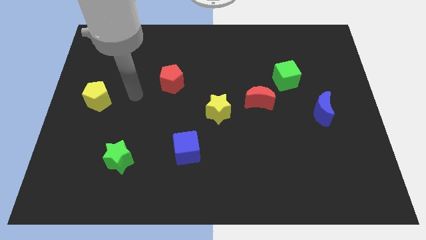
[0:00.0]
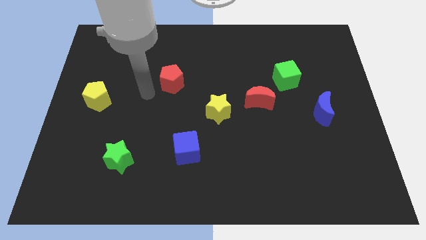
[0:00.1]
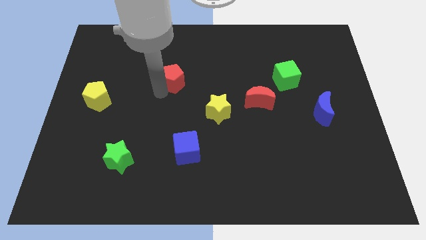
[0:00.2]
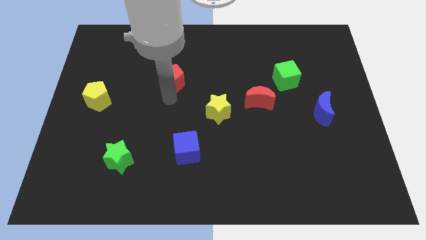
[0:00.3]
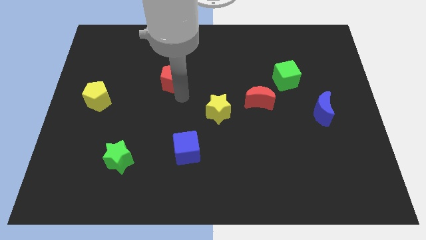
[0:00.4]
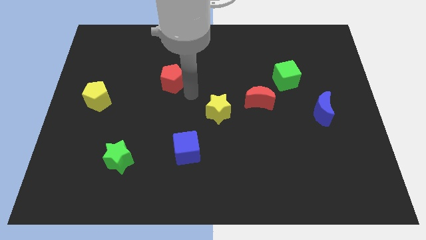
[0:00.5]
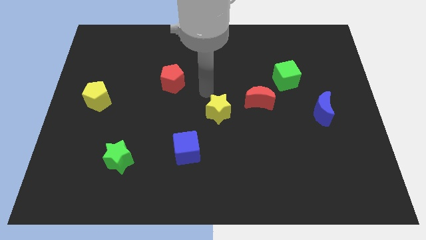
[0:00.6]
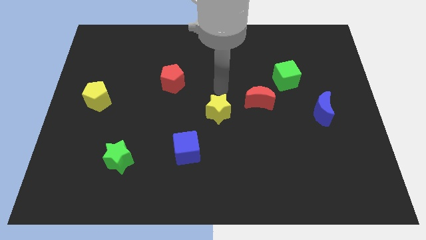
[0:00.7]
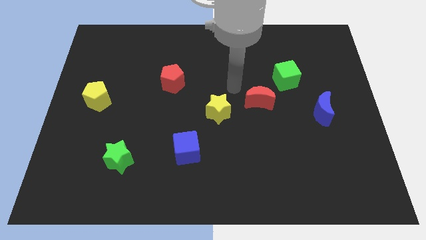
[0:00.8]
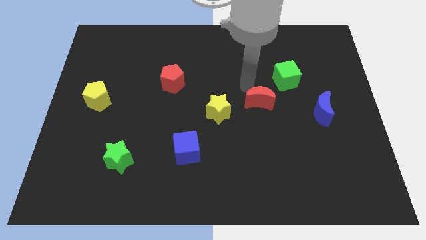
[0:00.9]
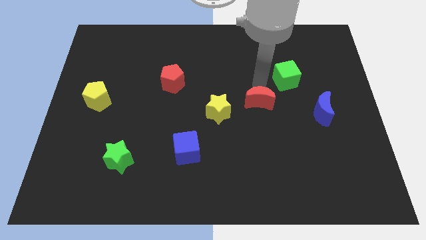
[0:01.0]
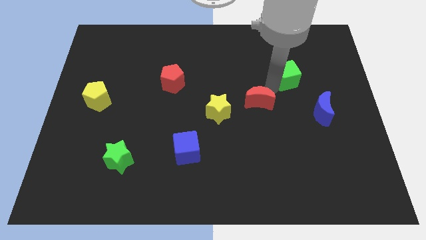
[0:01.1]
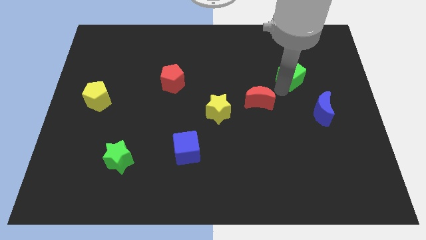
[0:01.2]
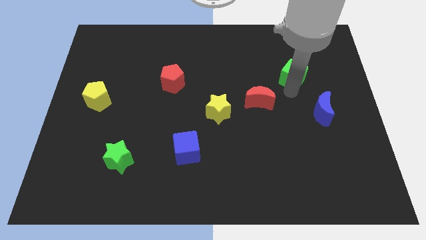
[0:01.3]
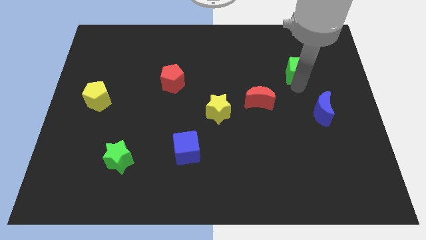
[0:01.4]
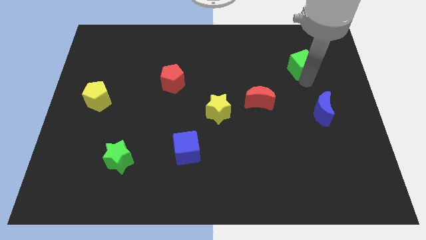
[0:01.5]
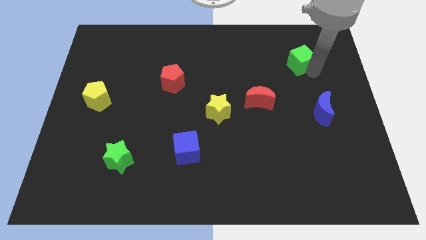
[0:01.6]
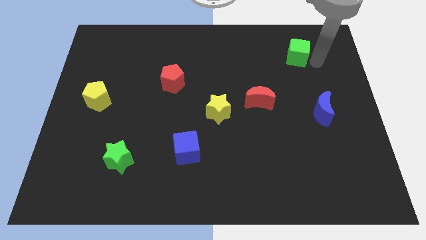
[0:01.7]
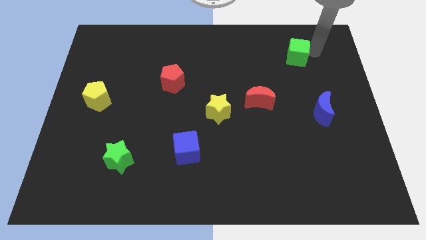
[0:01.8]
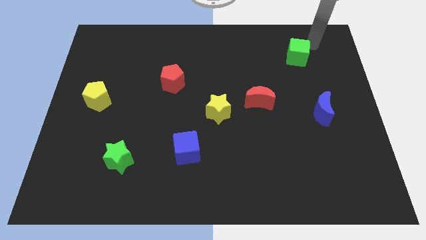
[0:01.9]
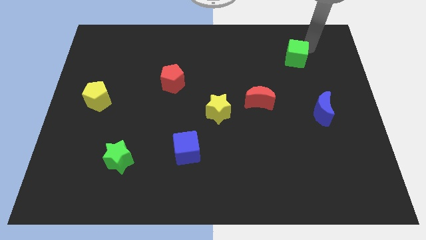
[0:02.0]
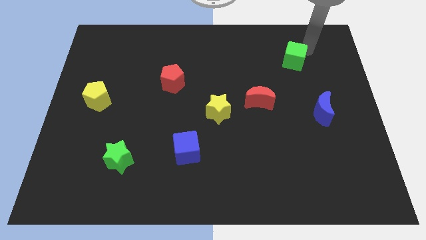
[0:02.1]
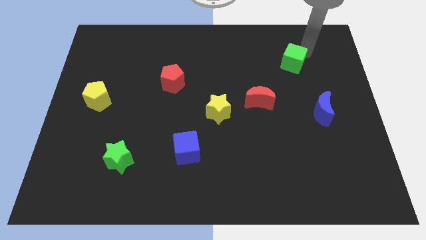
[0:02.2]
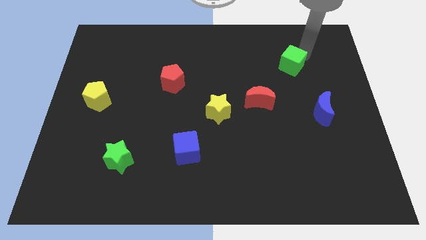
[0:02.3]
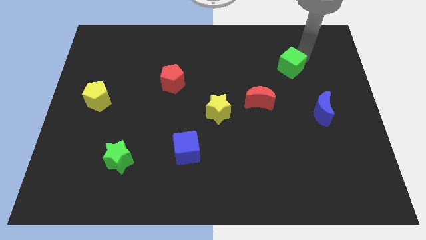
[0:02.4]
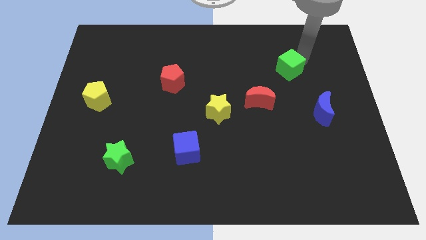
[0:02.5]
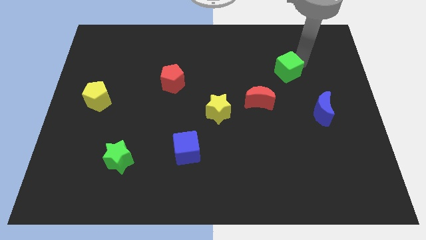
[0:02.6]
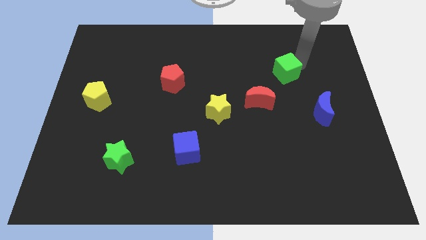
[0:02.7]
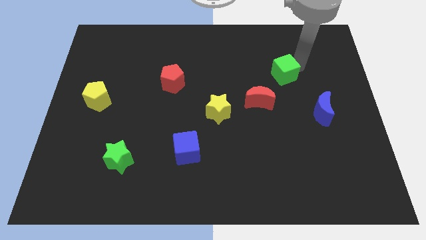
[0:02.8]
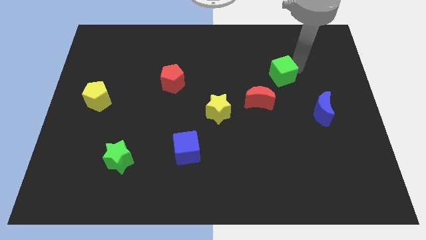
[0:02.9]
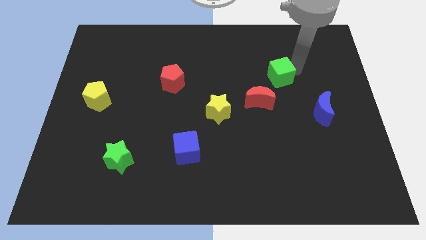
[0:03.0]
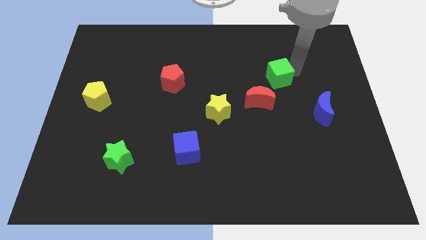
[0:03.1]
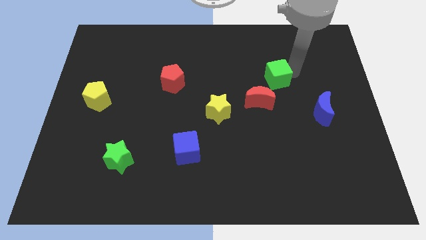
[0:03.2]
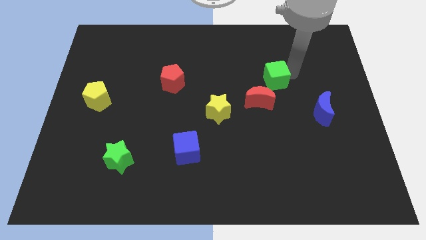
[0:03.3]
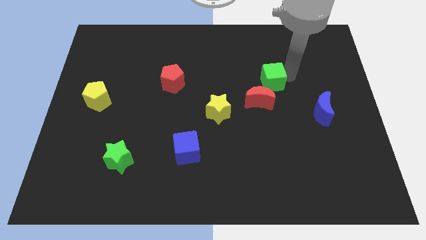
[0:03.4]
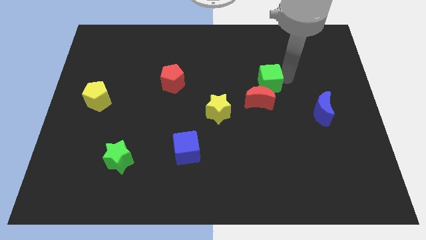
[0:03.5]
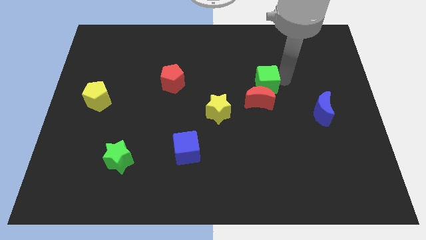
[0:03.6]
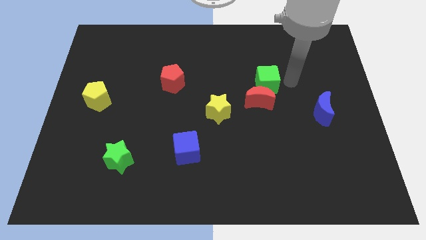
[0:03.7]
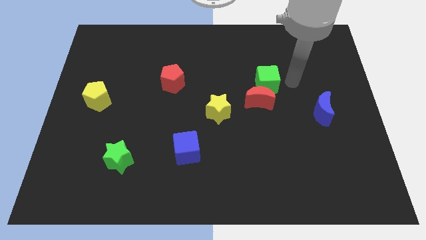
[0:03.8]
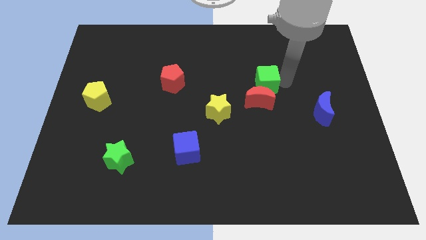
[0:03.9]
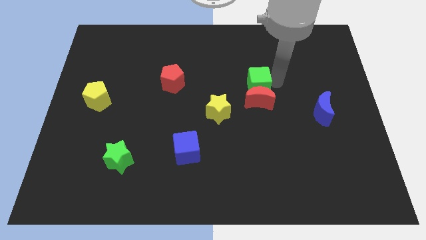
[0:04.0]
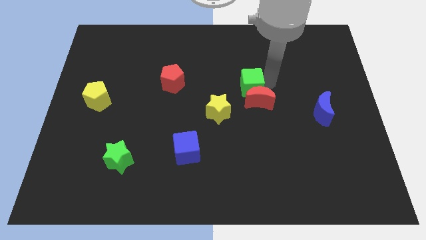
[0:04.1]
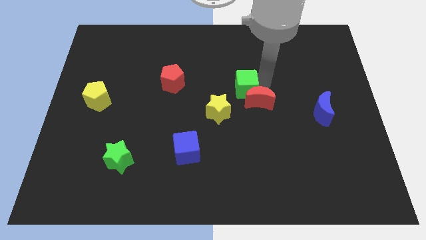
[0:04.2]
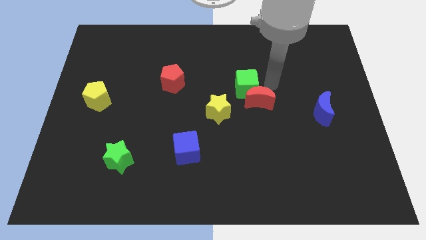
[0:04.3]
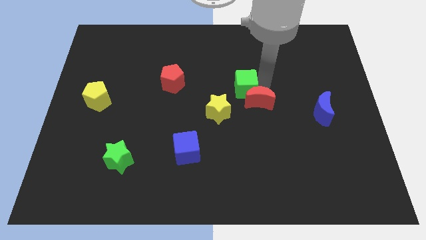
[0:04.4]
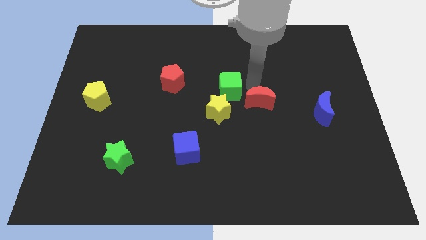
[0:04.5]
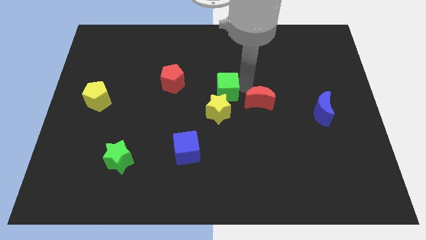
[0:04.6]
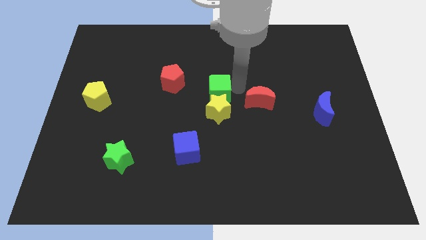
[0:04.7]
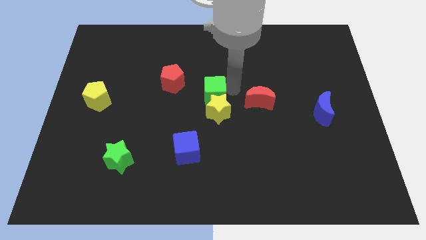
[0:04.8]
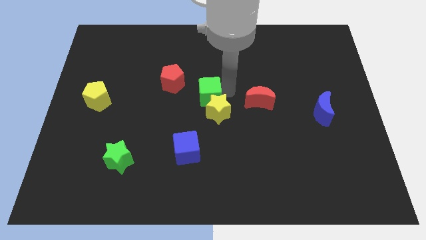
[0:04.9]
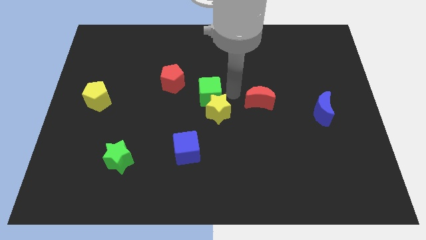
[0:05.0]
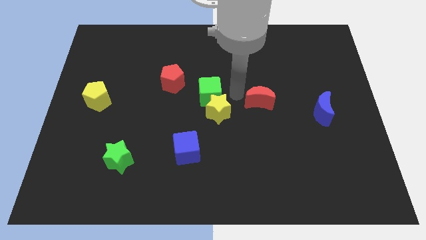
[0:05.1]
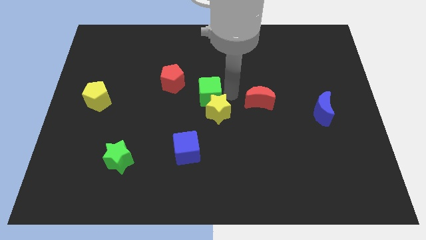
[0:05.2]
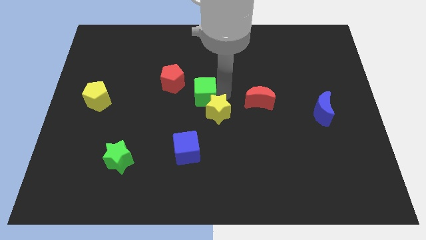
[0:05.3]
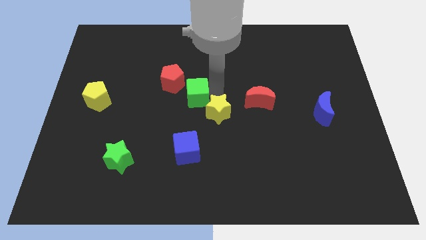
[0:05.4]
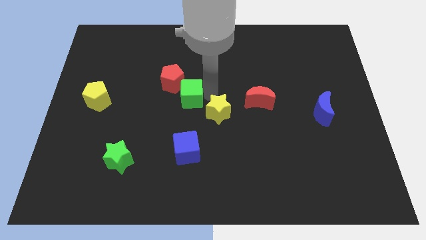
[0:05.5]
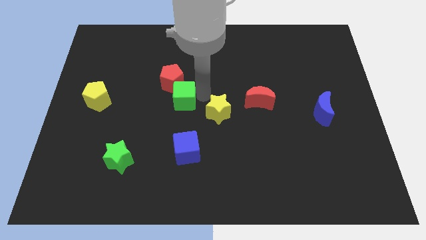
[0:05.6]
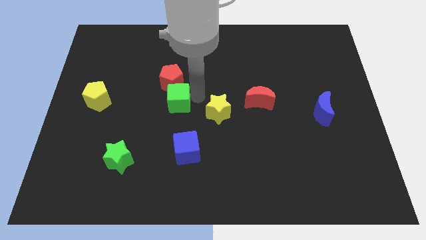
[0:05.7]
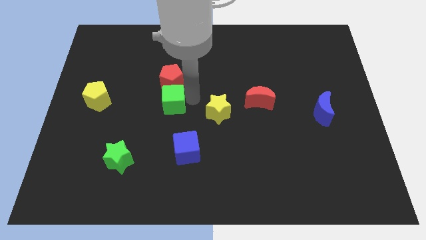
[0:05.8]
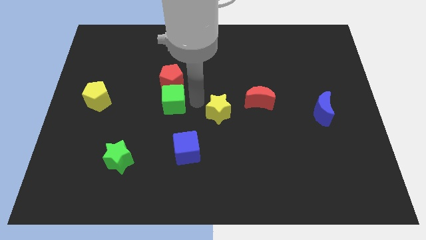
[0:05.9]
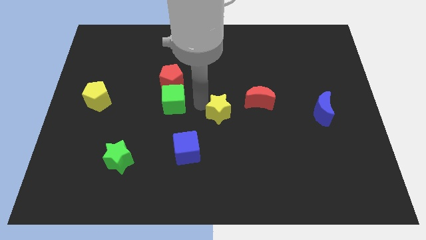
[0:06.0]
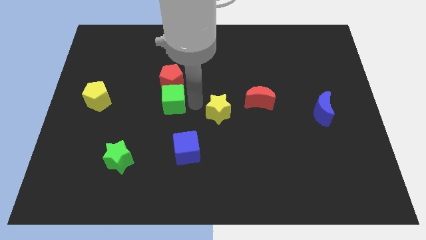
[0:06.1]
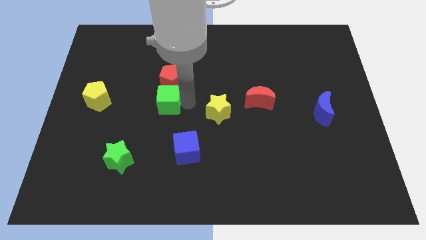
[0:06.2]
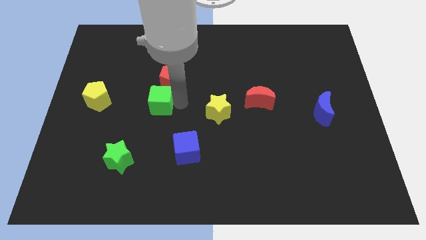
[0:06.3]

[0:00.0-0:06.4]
push the green cube just right of the yellow pentagon

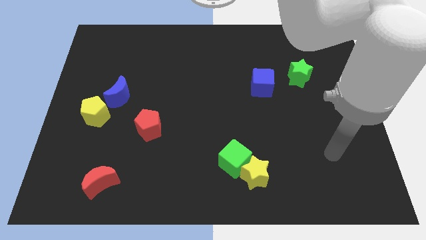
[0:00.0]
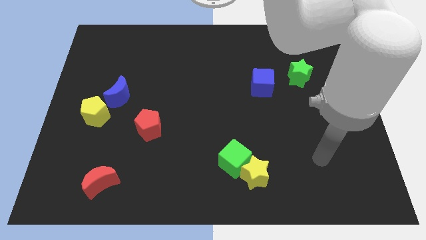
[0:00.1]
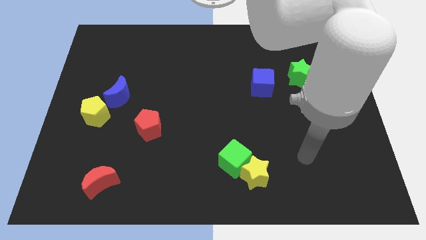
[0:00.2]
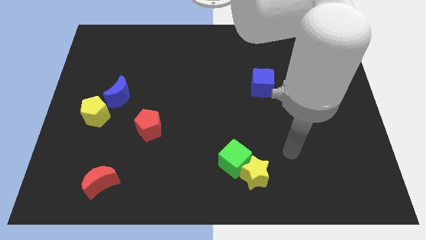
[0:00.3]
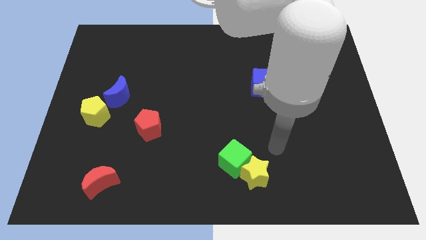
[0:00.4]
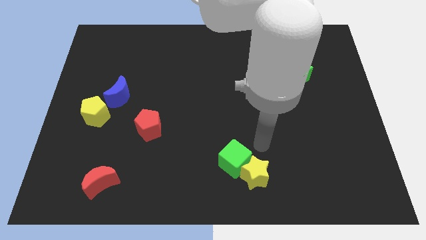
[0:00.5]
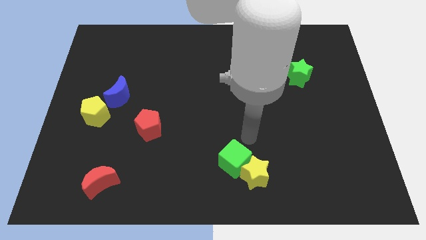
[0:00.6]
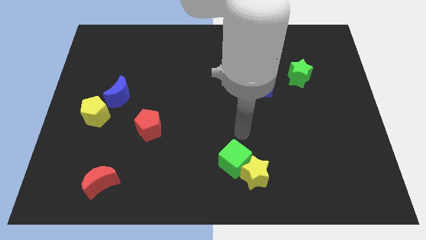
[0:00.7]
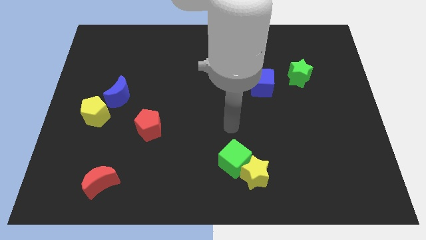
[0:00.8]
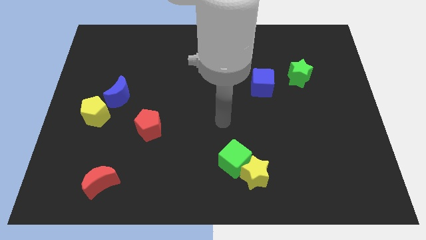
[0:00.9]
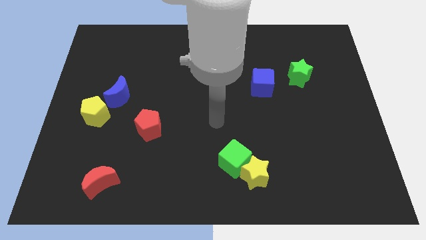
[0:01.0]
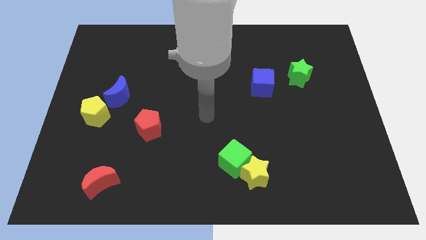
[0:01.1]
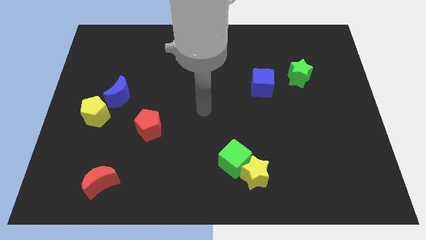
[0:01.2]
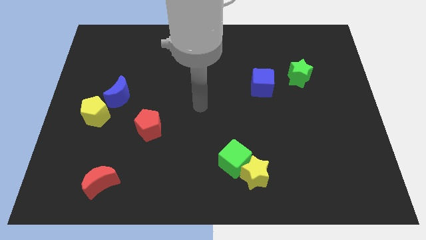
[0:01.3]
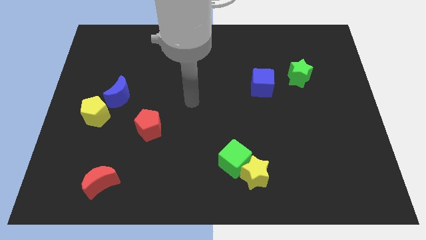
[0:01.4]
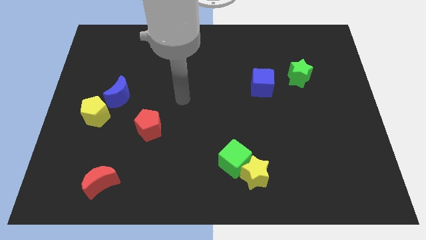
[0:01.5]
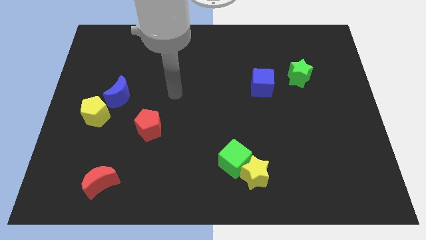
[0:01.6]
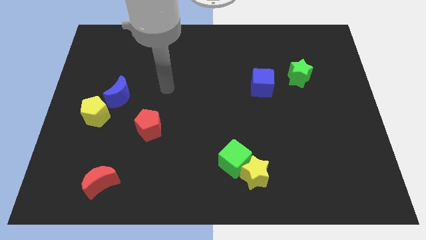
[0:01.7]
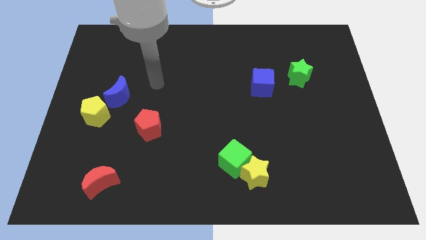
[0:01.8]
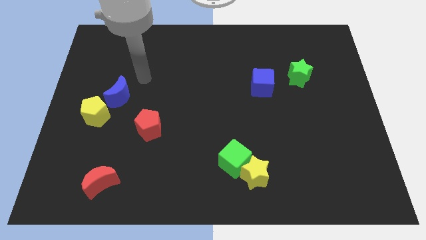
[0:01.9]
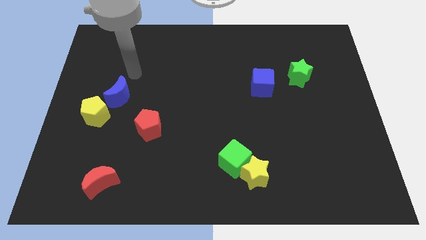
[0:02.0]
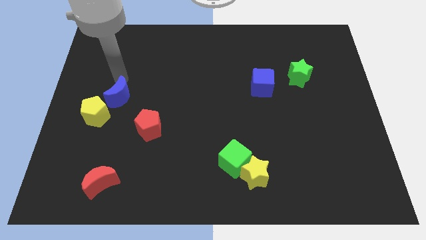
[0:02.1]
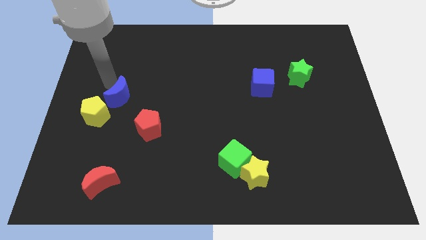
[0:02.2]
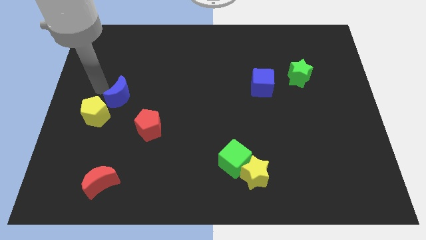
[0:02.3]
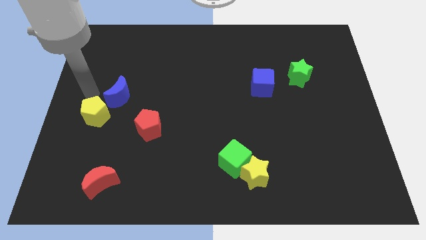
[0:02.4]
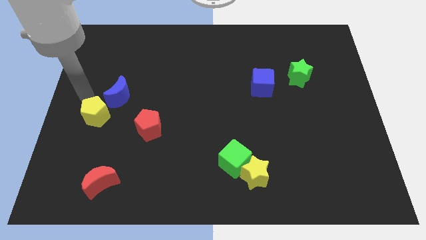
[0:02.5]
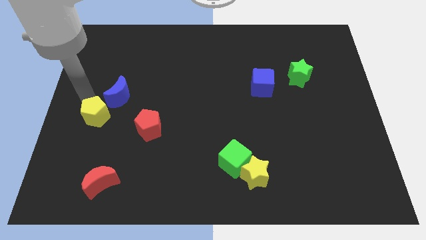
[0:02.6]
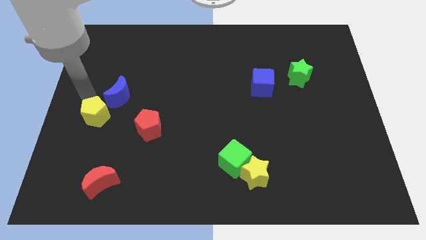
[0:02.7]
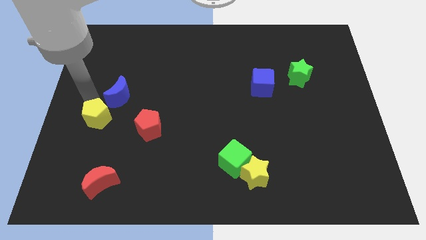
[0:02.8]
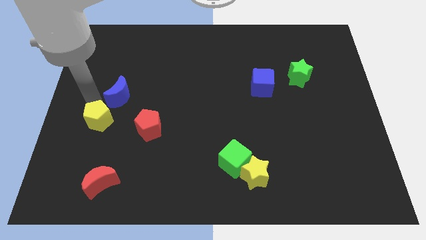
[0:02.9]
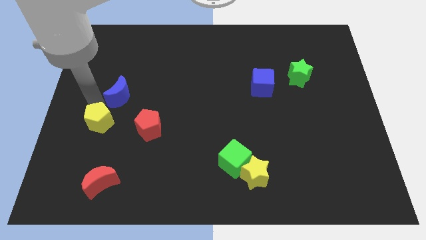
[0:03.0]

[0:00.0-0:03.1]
move the yellow pentagon to the top of the red moon
